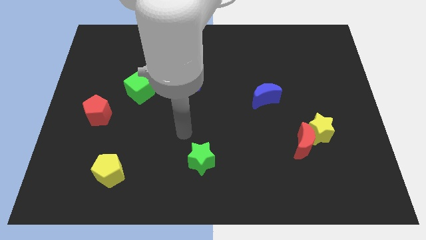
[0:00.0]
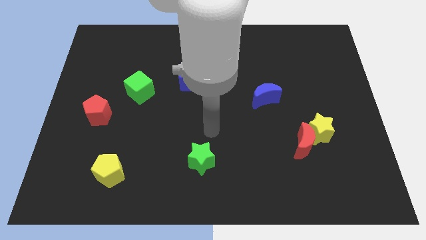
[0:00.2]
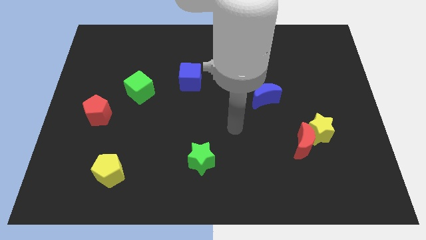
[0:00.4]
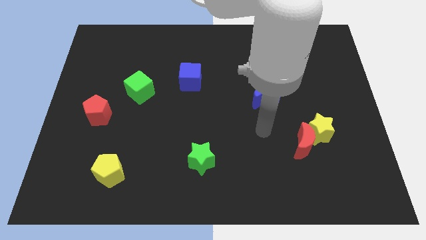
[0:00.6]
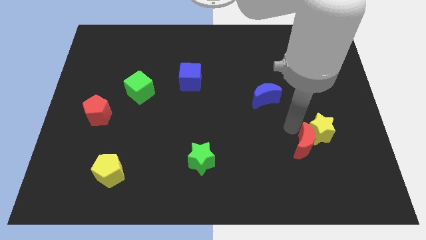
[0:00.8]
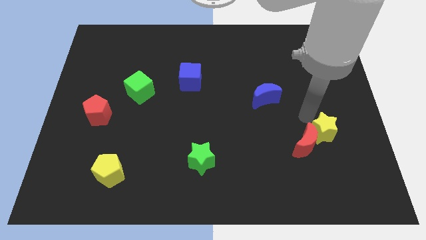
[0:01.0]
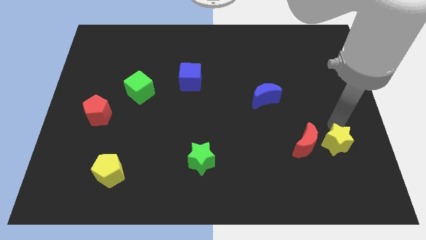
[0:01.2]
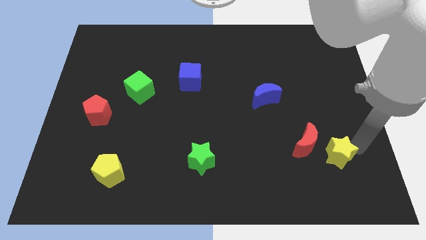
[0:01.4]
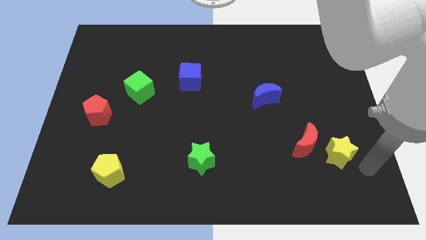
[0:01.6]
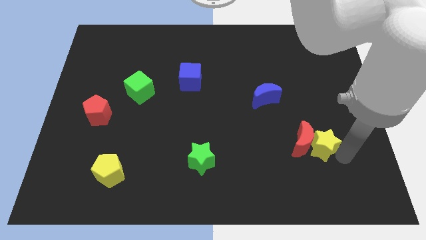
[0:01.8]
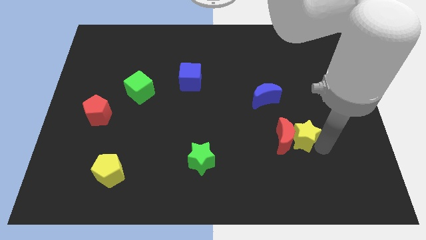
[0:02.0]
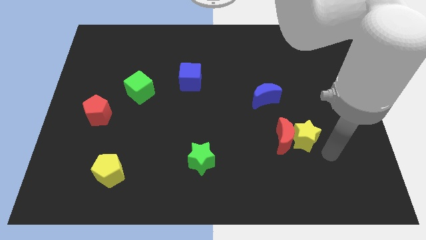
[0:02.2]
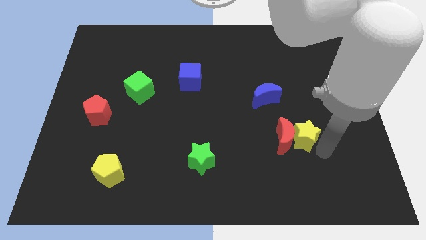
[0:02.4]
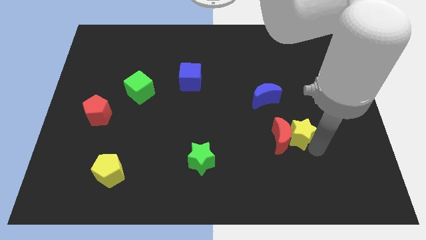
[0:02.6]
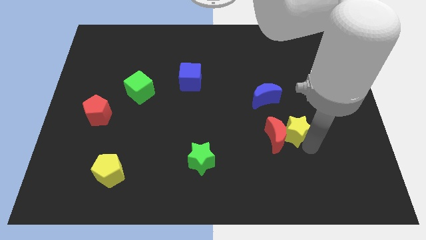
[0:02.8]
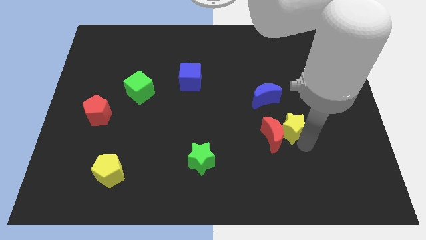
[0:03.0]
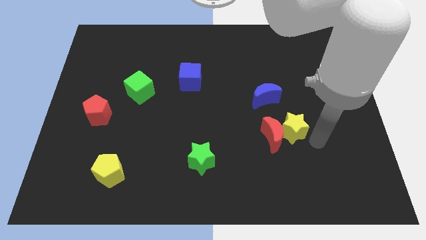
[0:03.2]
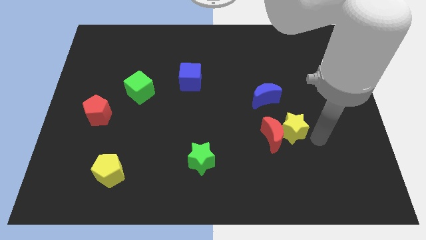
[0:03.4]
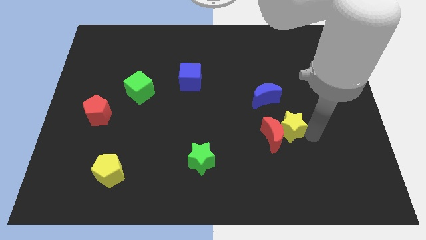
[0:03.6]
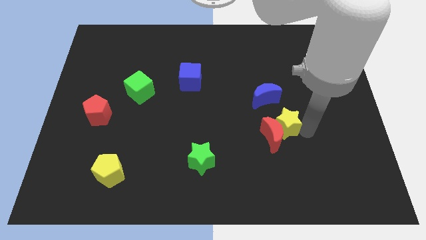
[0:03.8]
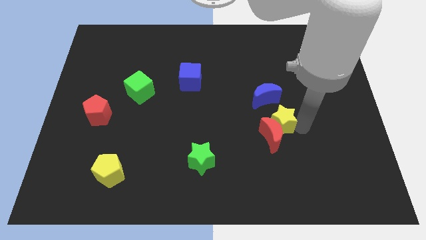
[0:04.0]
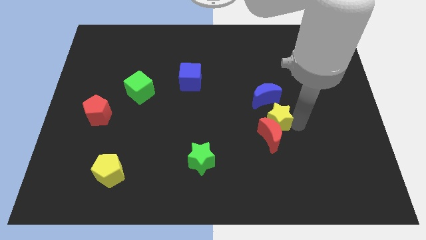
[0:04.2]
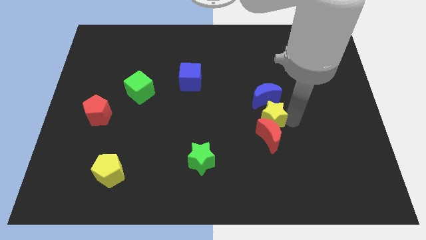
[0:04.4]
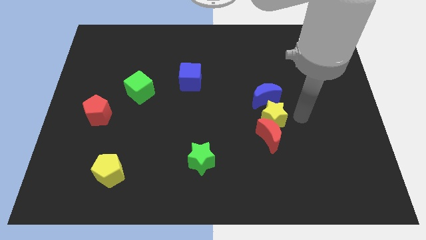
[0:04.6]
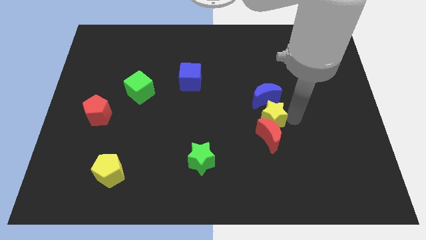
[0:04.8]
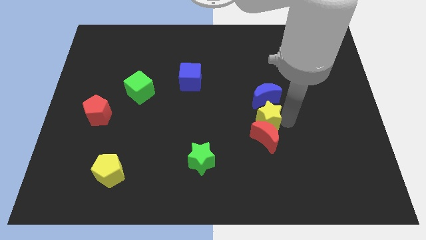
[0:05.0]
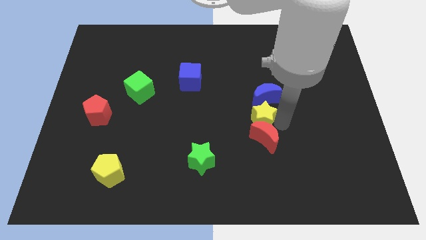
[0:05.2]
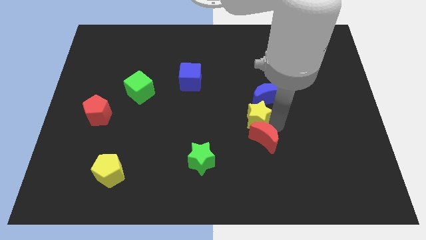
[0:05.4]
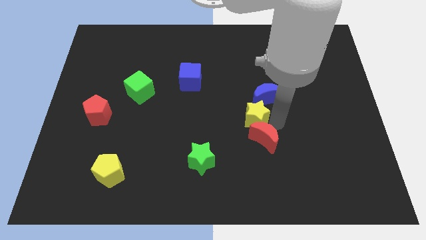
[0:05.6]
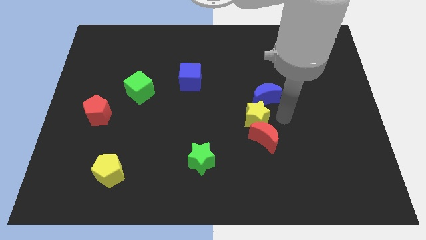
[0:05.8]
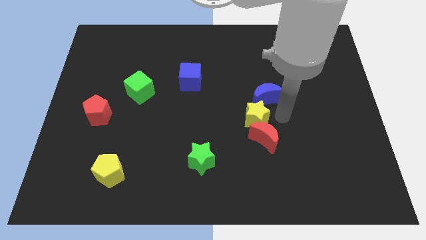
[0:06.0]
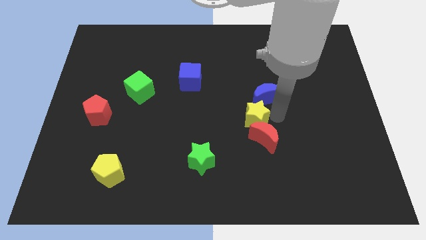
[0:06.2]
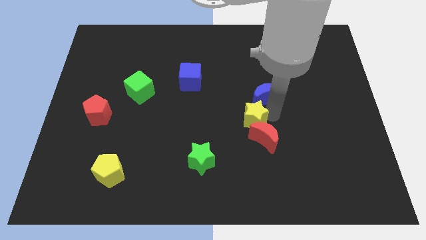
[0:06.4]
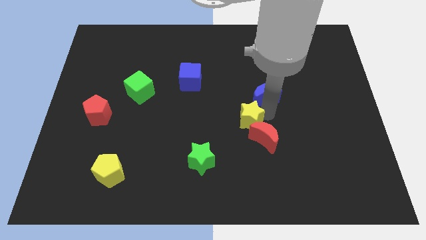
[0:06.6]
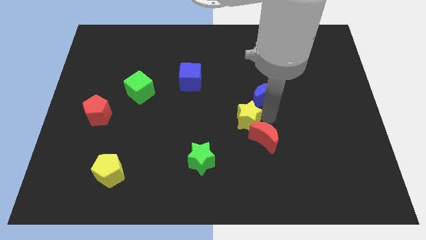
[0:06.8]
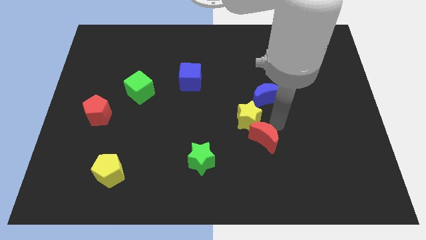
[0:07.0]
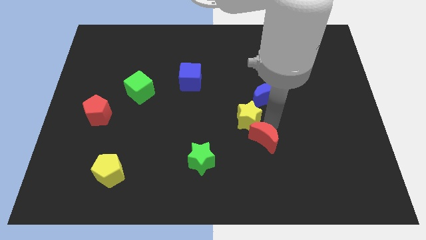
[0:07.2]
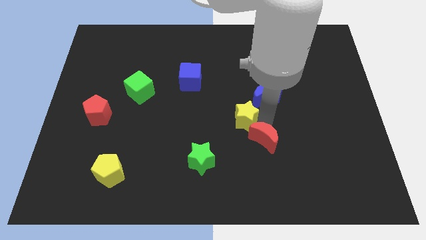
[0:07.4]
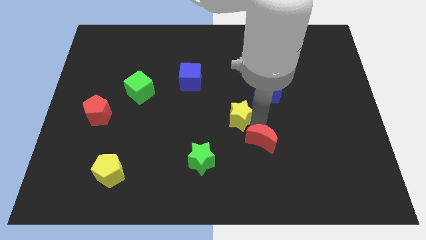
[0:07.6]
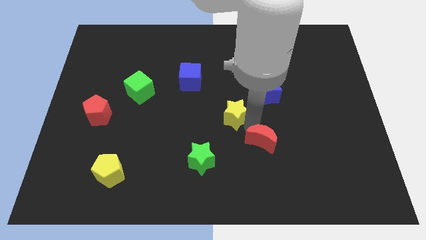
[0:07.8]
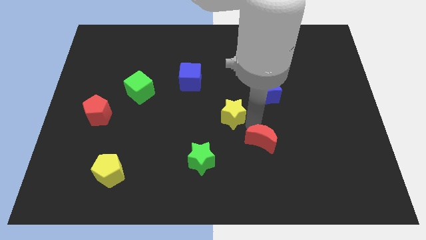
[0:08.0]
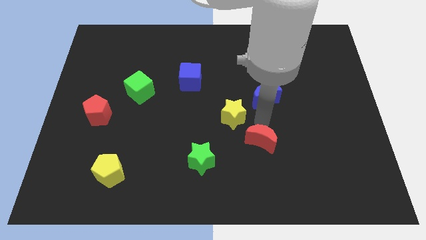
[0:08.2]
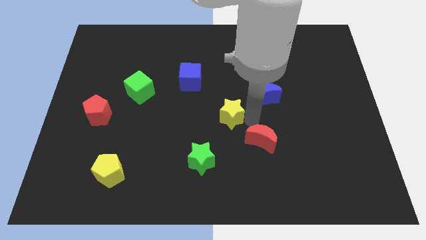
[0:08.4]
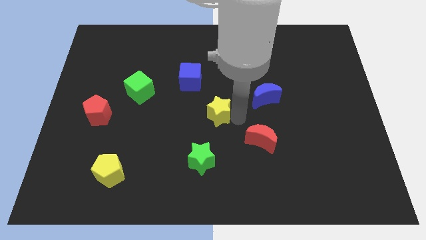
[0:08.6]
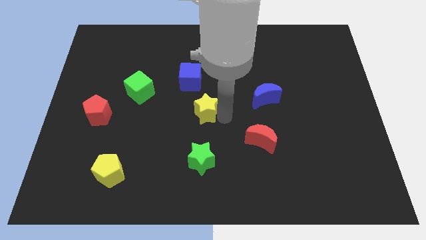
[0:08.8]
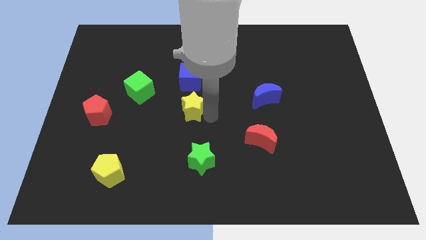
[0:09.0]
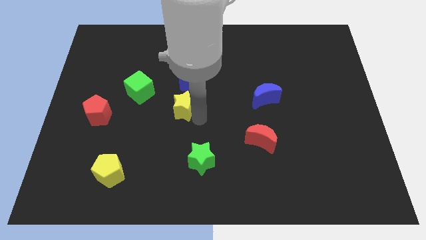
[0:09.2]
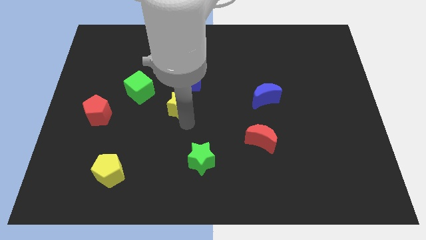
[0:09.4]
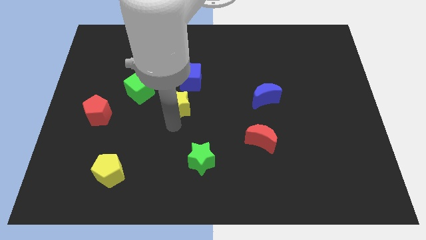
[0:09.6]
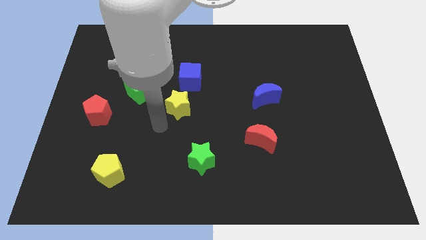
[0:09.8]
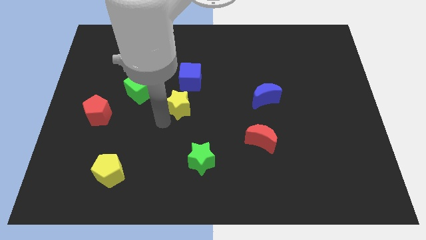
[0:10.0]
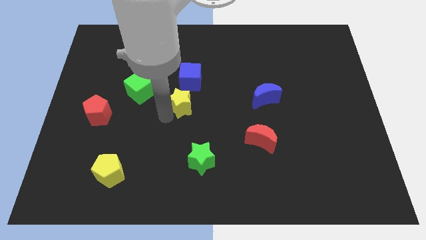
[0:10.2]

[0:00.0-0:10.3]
push the yellow star just right of the green cube

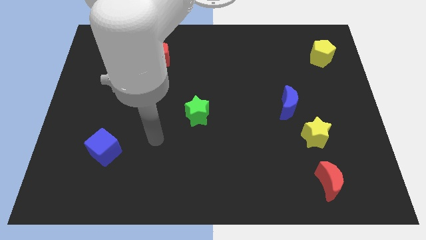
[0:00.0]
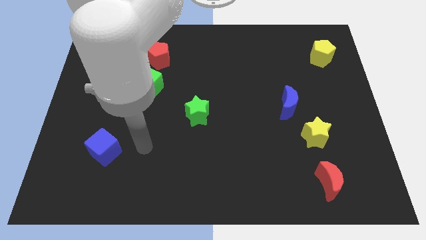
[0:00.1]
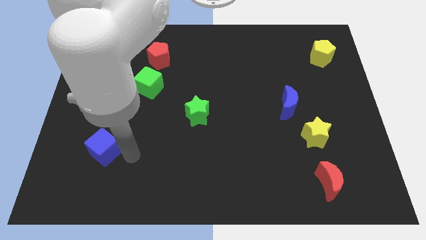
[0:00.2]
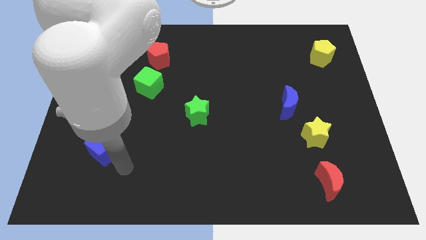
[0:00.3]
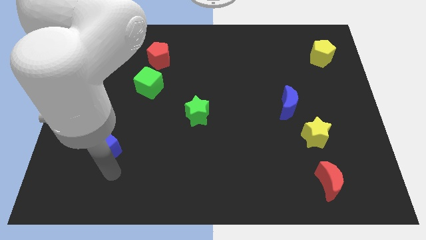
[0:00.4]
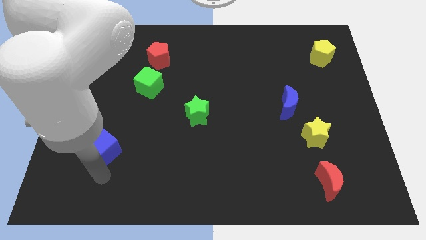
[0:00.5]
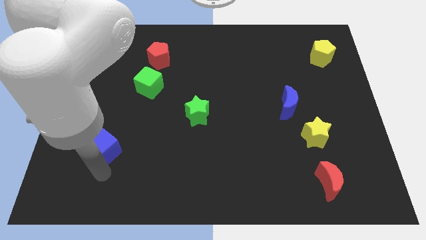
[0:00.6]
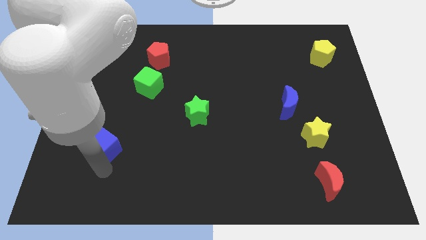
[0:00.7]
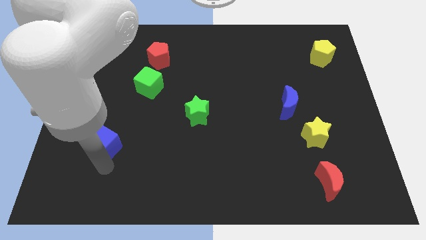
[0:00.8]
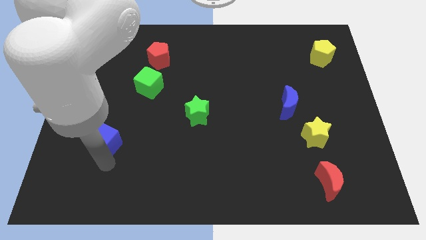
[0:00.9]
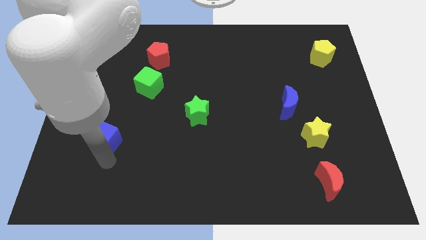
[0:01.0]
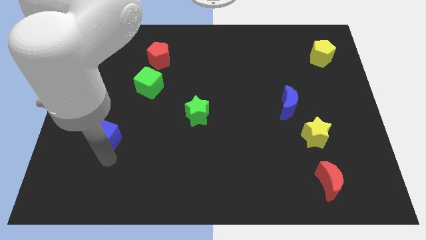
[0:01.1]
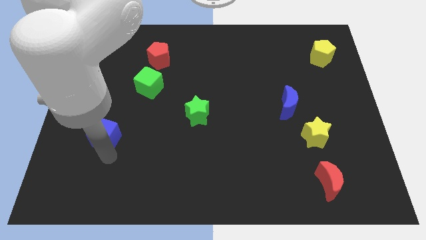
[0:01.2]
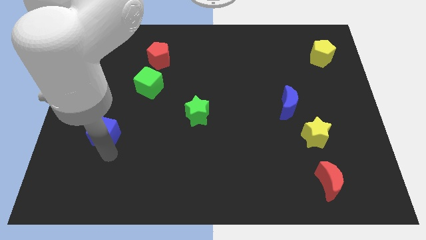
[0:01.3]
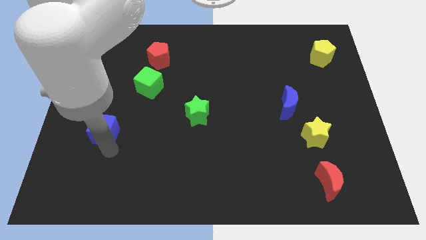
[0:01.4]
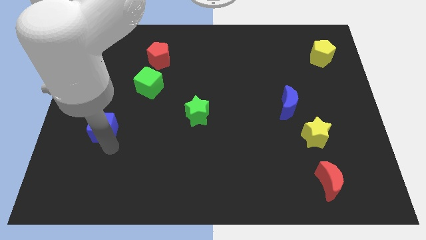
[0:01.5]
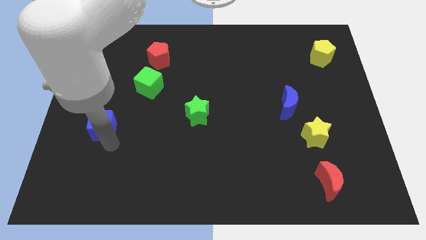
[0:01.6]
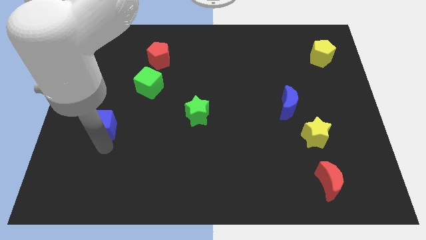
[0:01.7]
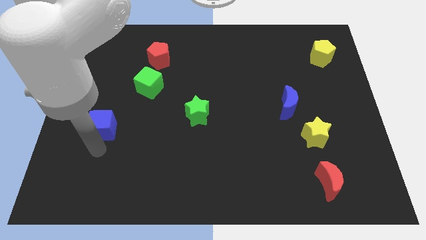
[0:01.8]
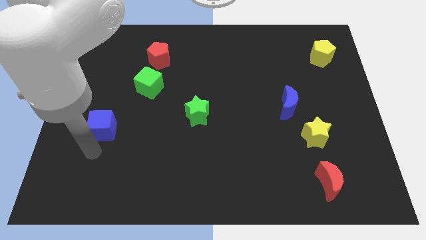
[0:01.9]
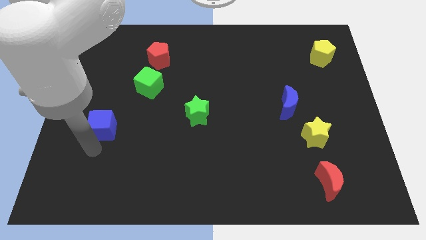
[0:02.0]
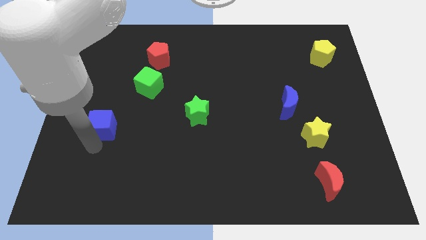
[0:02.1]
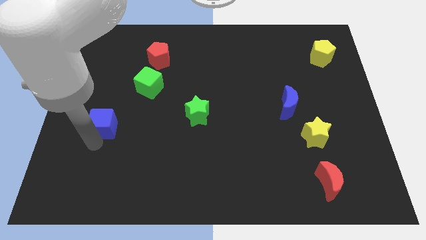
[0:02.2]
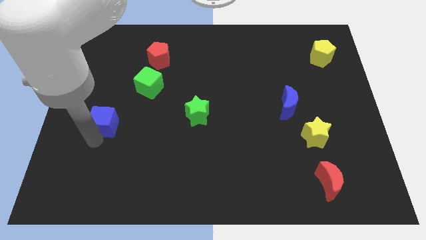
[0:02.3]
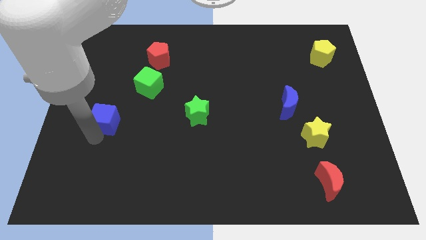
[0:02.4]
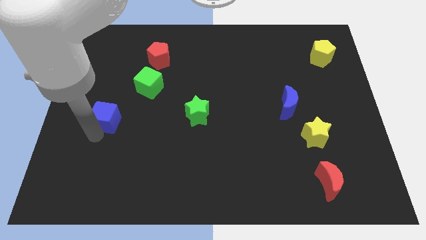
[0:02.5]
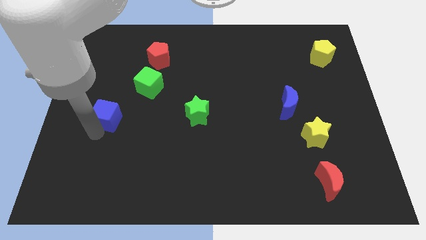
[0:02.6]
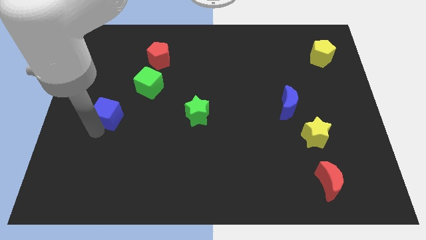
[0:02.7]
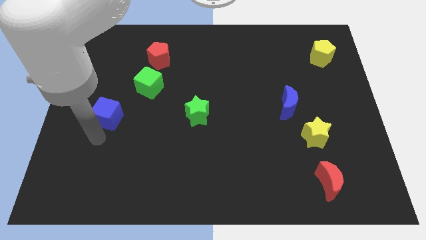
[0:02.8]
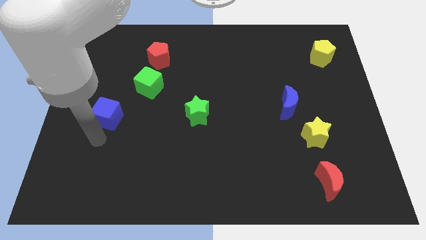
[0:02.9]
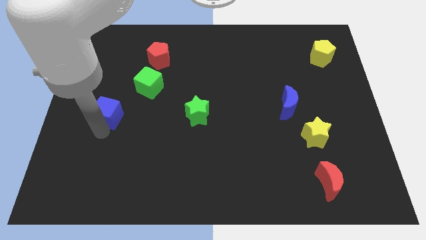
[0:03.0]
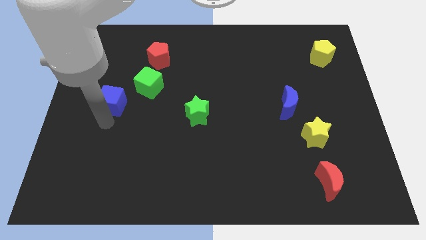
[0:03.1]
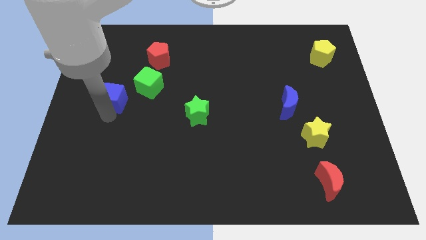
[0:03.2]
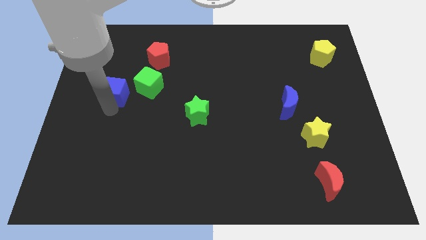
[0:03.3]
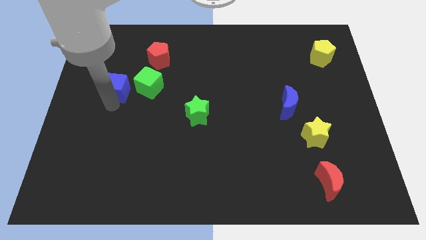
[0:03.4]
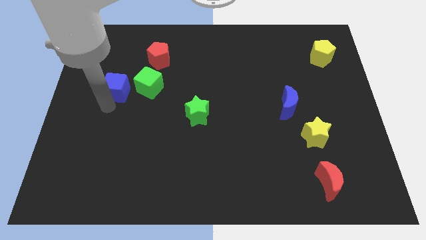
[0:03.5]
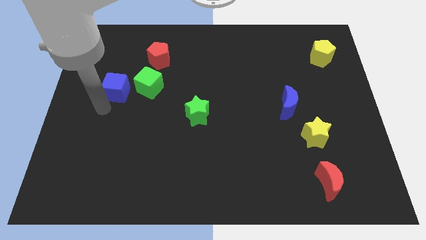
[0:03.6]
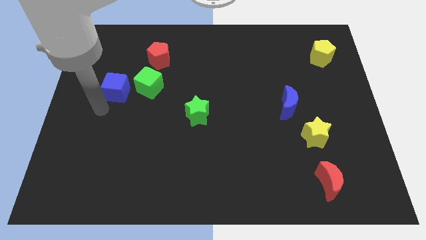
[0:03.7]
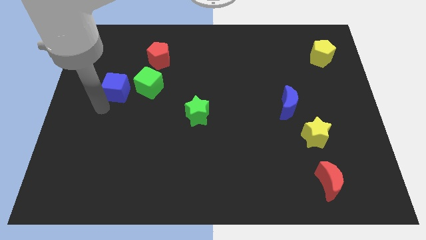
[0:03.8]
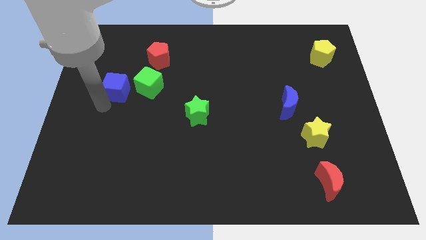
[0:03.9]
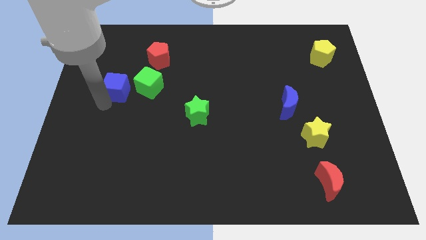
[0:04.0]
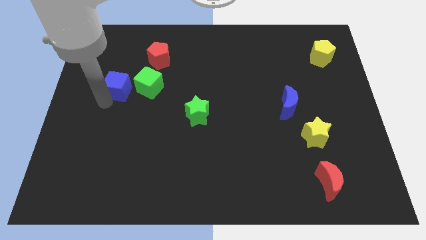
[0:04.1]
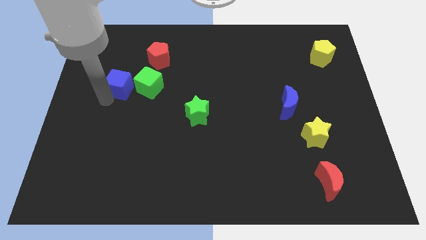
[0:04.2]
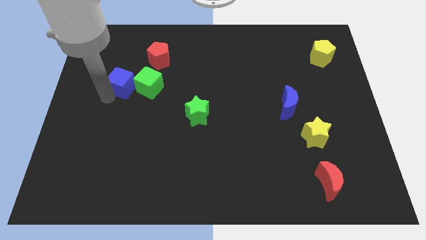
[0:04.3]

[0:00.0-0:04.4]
push the blue cube diagonally up and to the left of the green cube
